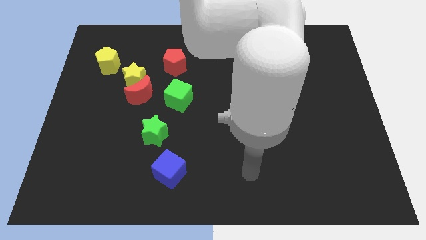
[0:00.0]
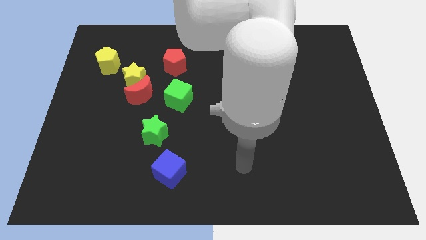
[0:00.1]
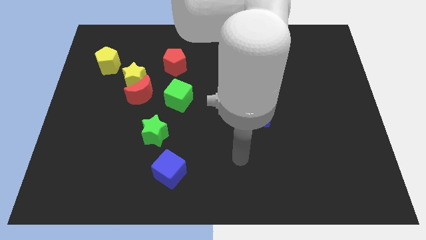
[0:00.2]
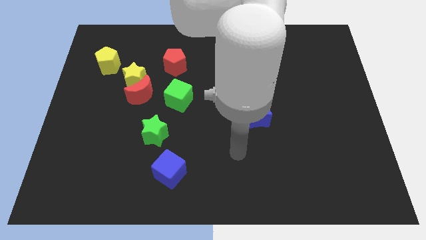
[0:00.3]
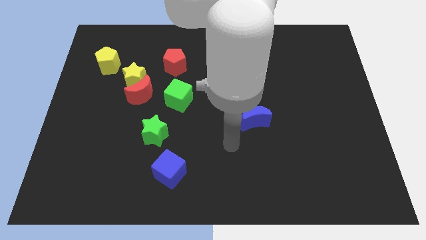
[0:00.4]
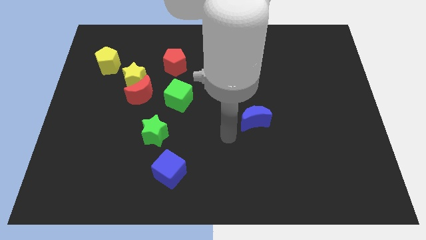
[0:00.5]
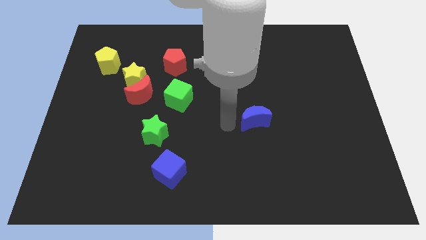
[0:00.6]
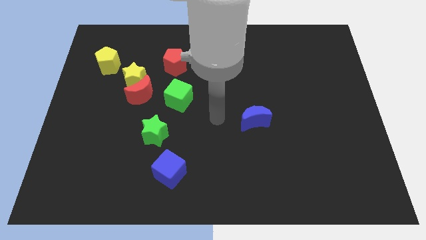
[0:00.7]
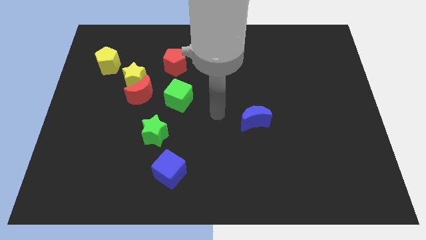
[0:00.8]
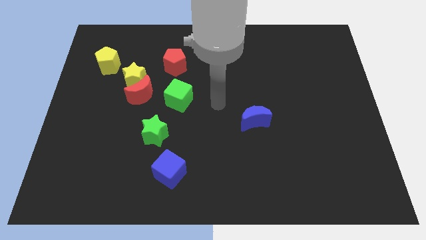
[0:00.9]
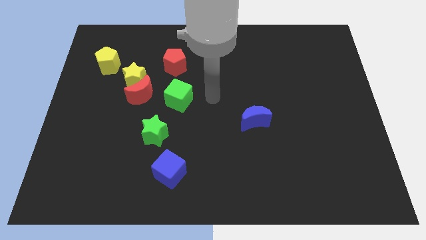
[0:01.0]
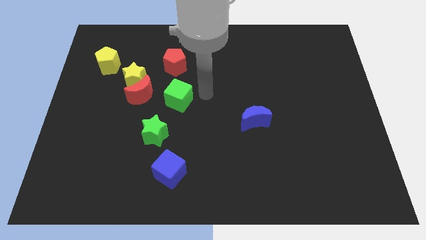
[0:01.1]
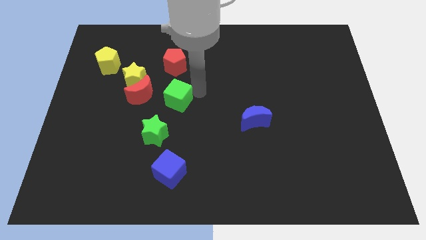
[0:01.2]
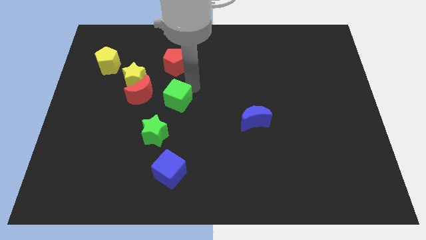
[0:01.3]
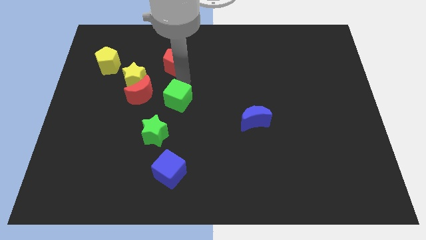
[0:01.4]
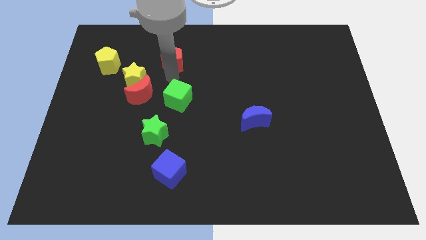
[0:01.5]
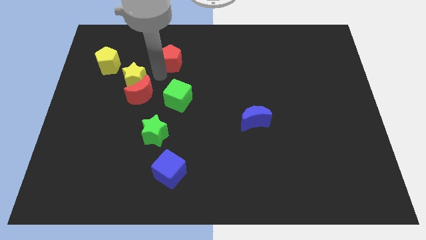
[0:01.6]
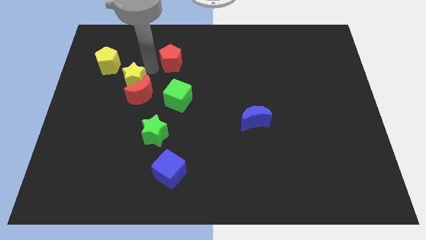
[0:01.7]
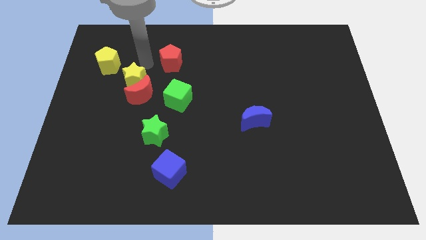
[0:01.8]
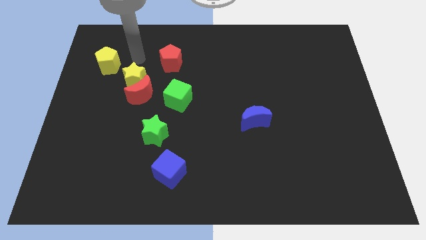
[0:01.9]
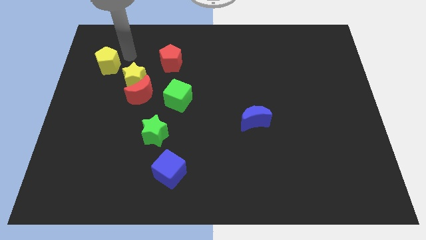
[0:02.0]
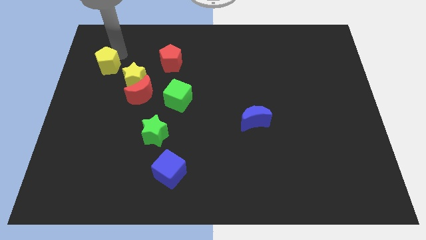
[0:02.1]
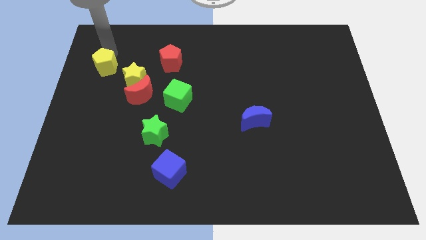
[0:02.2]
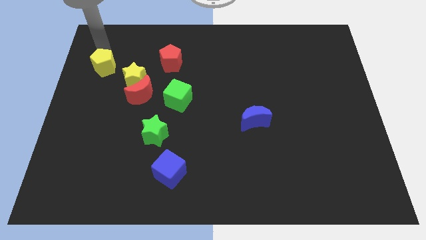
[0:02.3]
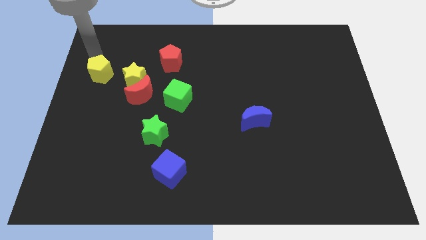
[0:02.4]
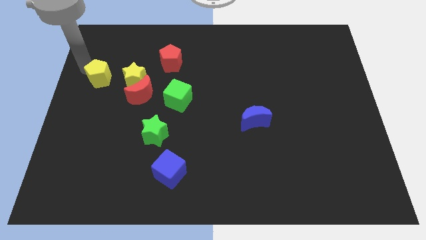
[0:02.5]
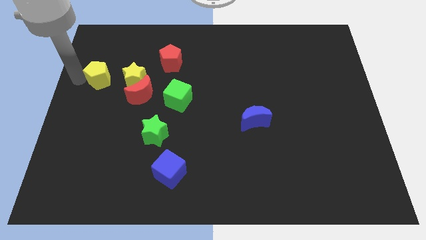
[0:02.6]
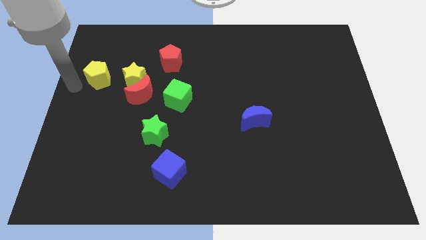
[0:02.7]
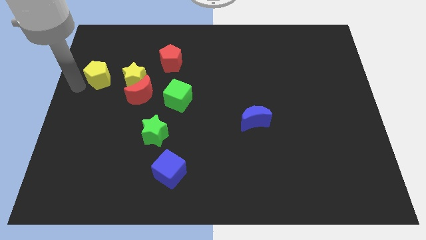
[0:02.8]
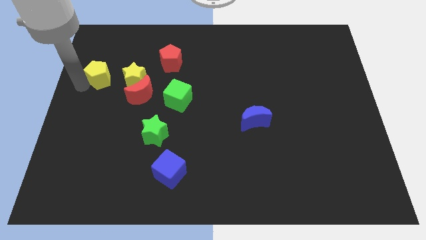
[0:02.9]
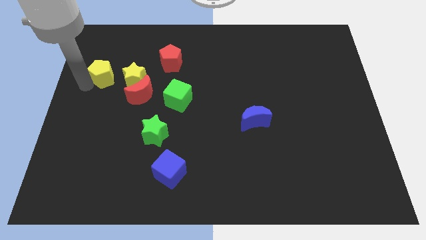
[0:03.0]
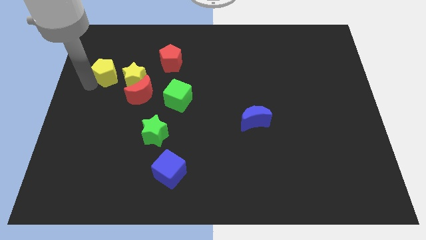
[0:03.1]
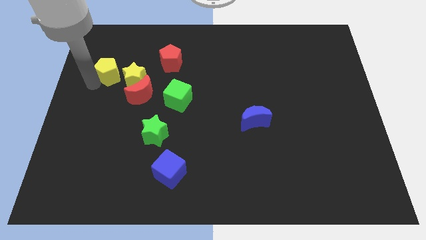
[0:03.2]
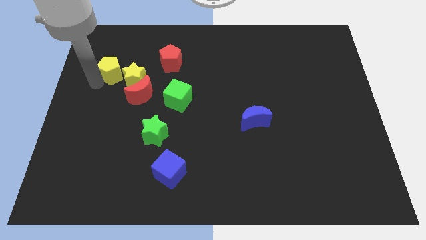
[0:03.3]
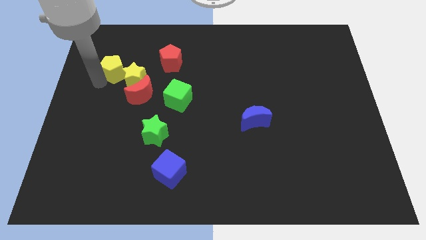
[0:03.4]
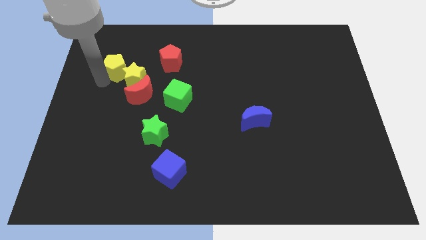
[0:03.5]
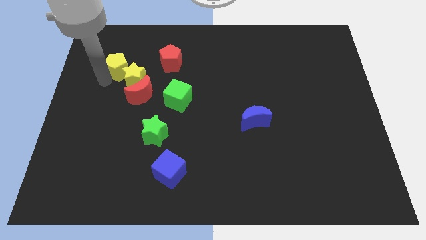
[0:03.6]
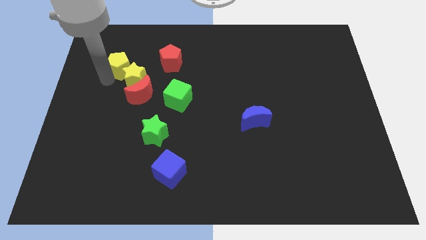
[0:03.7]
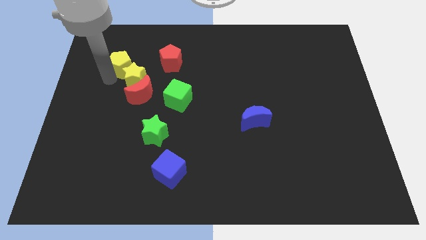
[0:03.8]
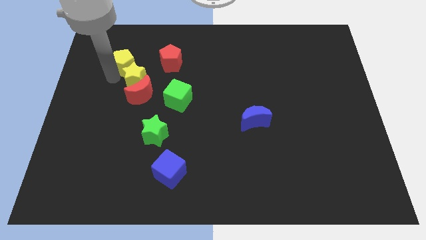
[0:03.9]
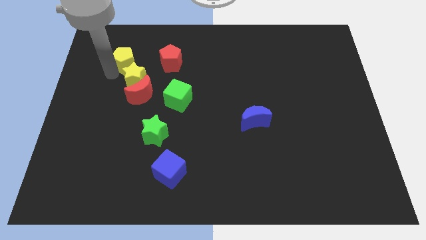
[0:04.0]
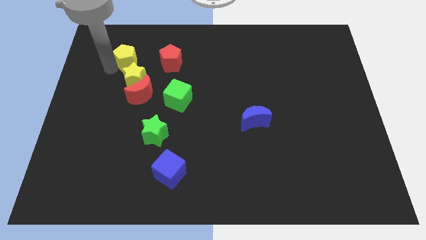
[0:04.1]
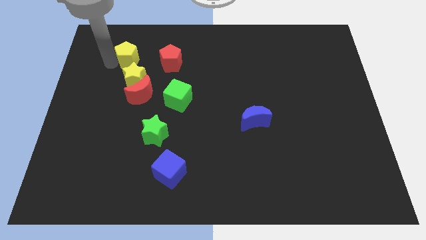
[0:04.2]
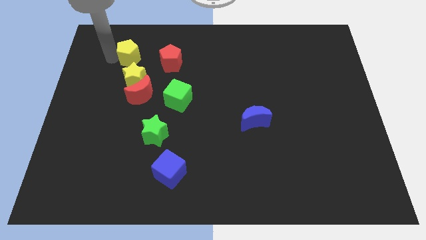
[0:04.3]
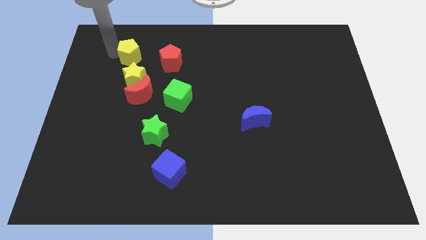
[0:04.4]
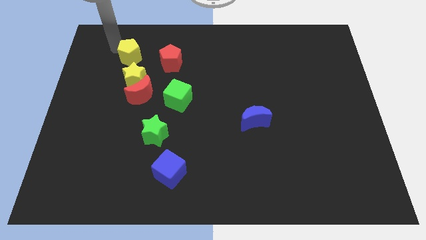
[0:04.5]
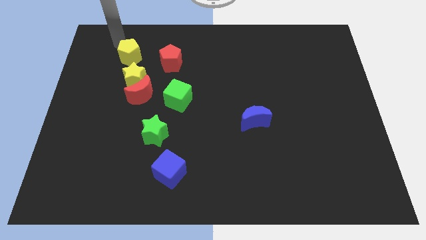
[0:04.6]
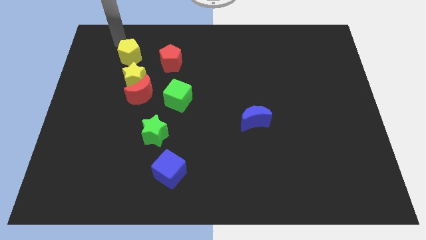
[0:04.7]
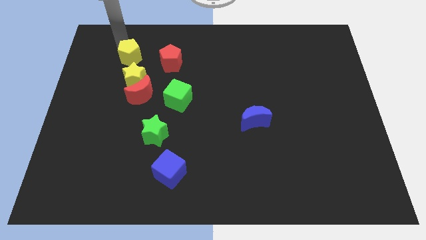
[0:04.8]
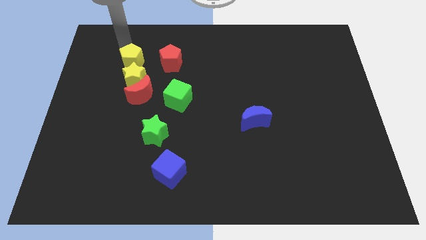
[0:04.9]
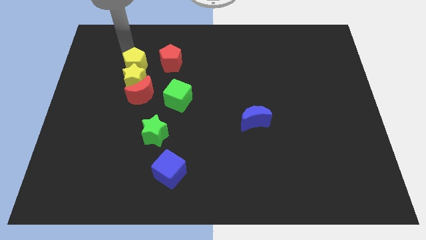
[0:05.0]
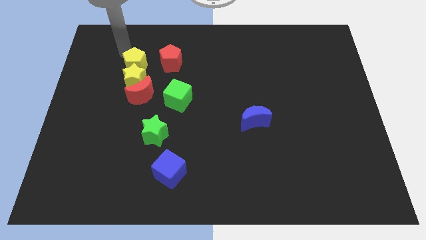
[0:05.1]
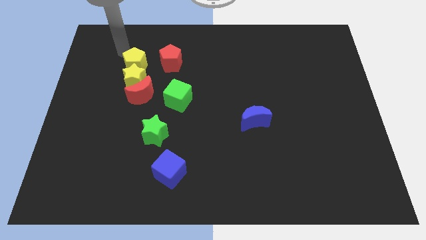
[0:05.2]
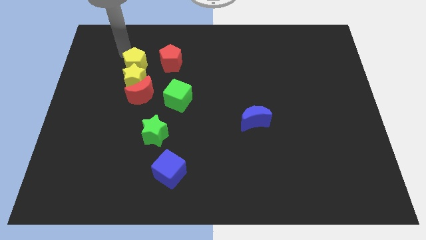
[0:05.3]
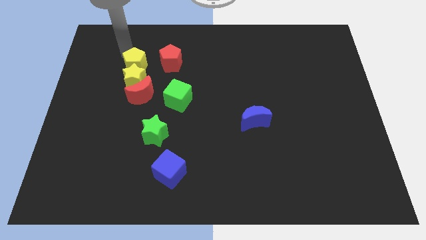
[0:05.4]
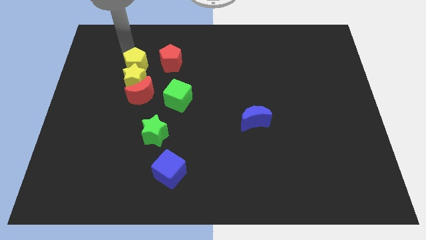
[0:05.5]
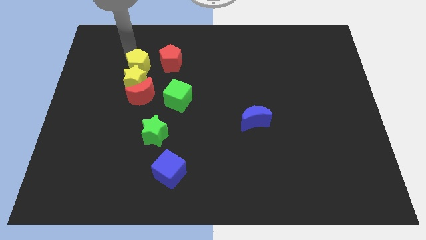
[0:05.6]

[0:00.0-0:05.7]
push the yellow pentagon diagonally down and to the left of the red pentagon

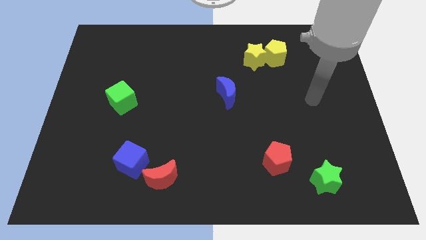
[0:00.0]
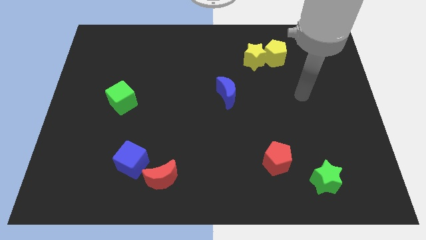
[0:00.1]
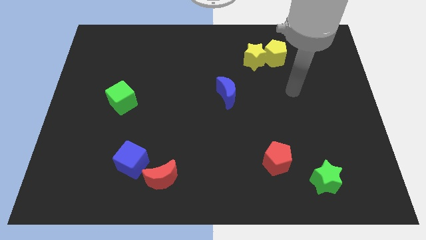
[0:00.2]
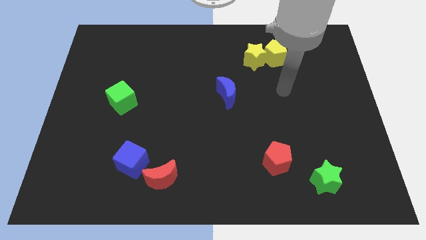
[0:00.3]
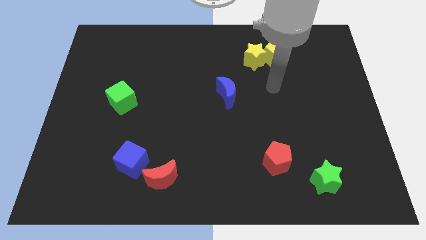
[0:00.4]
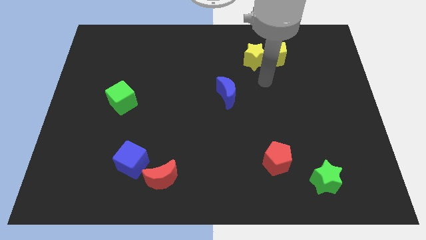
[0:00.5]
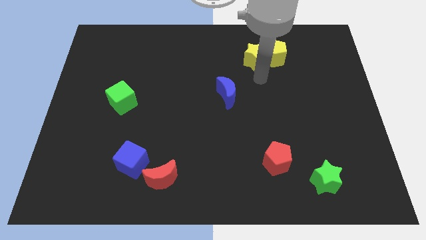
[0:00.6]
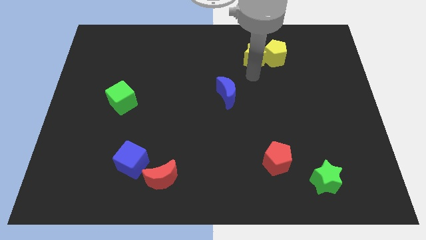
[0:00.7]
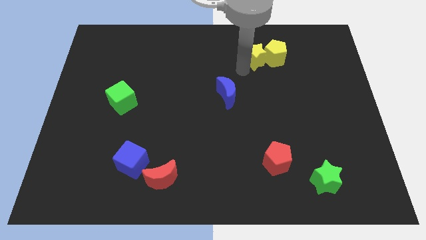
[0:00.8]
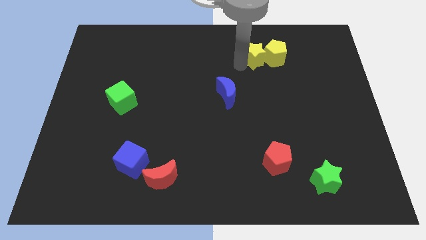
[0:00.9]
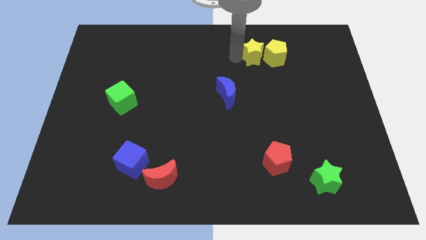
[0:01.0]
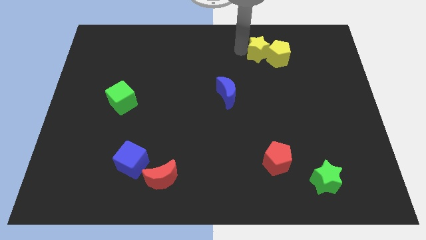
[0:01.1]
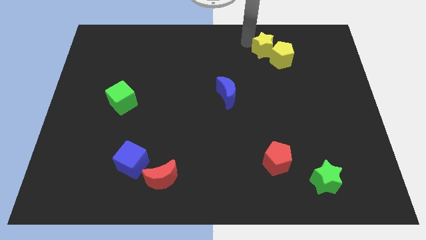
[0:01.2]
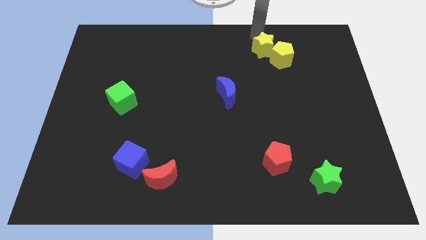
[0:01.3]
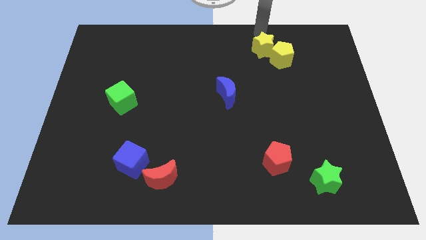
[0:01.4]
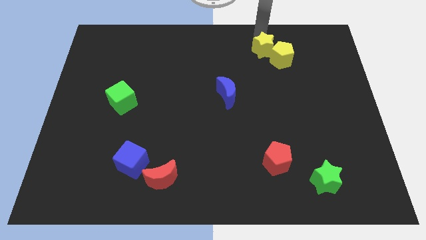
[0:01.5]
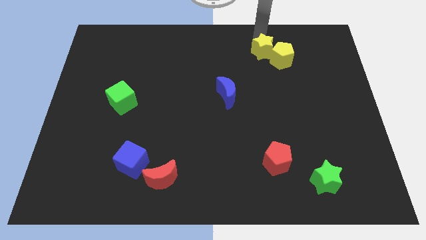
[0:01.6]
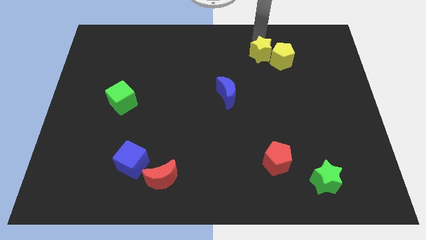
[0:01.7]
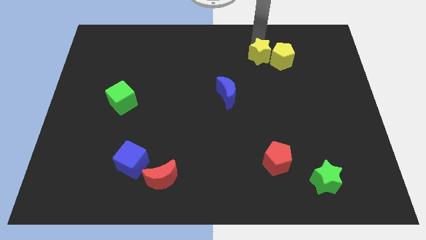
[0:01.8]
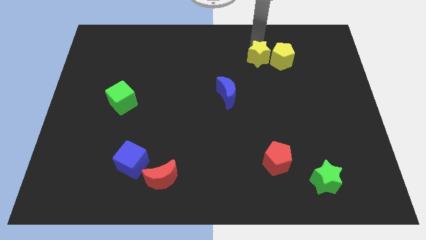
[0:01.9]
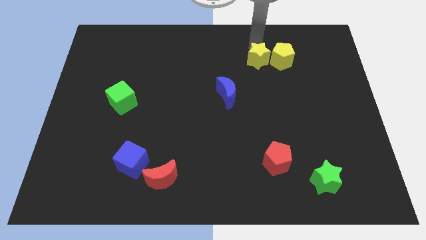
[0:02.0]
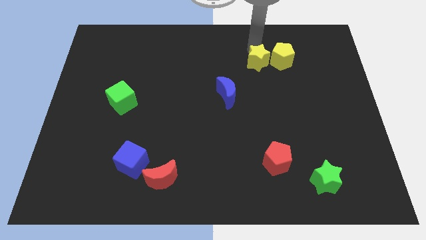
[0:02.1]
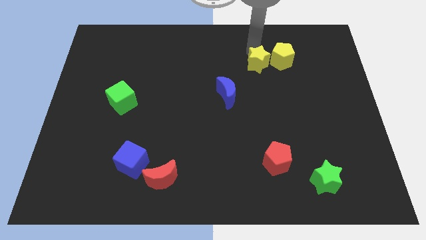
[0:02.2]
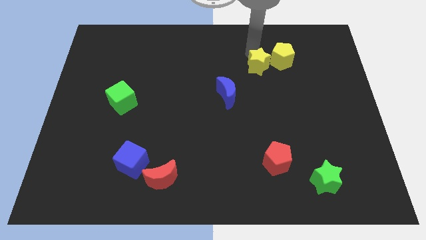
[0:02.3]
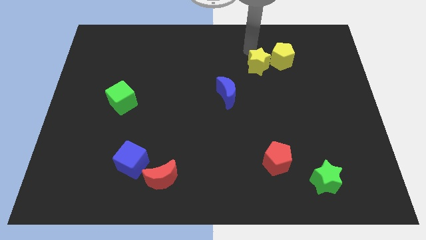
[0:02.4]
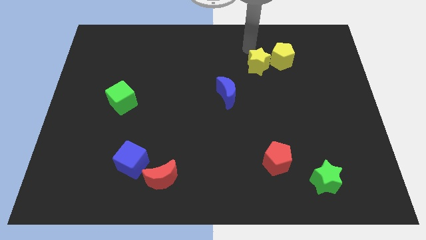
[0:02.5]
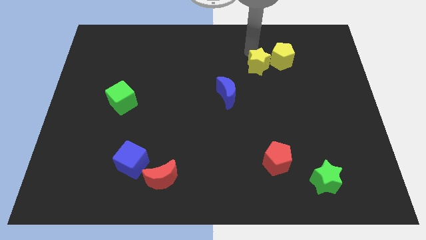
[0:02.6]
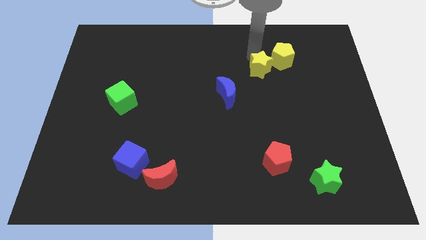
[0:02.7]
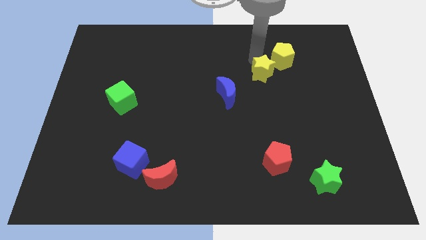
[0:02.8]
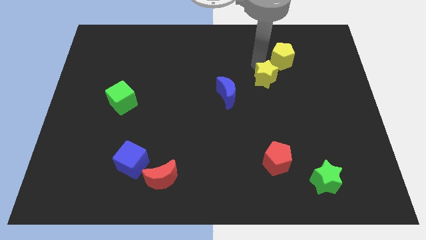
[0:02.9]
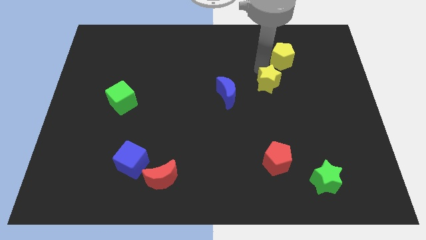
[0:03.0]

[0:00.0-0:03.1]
move the yellow star to the right of the blue moon
